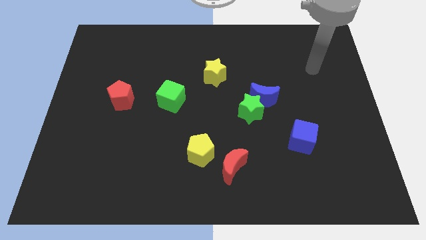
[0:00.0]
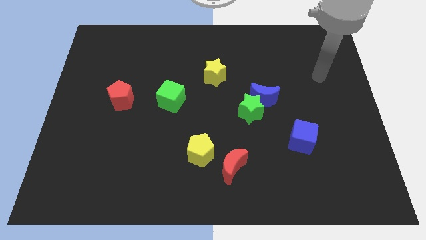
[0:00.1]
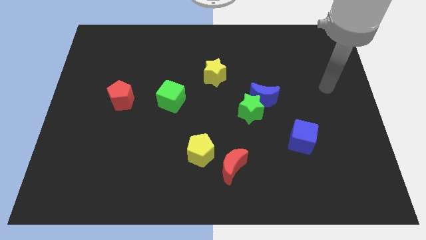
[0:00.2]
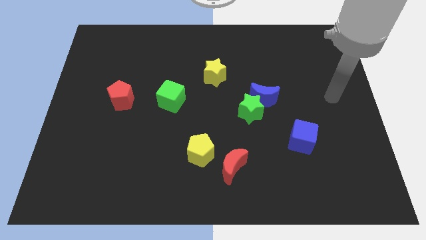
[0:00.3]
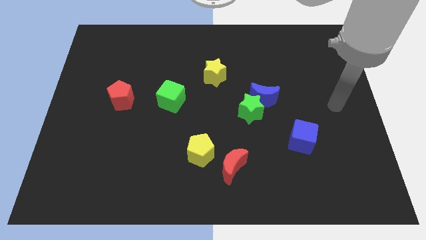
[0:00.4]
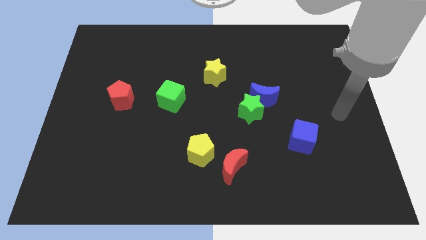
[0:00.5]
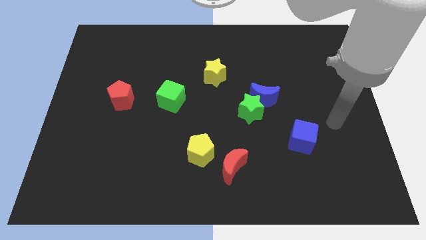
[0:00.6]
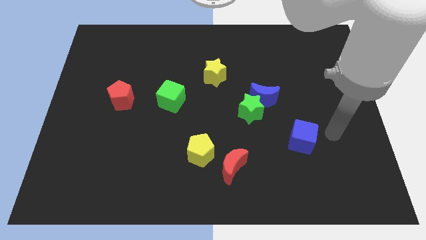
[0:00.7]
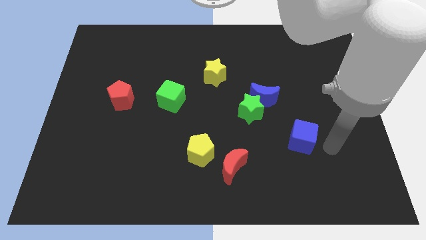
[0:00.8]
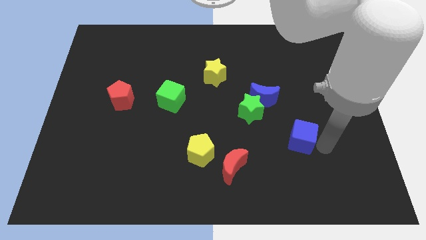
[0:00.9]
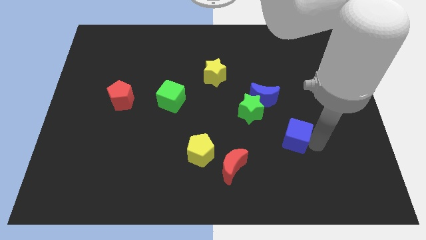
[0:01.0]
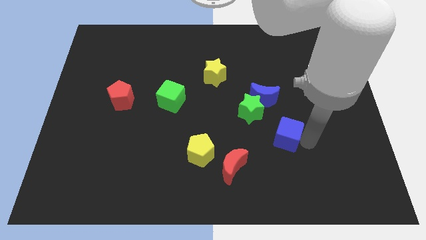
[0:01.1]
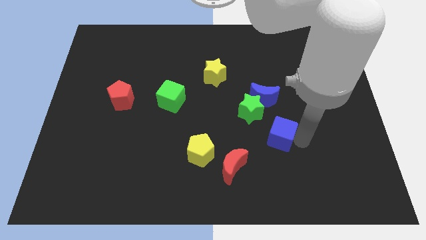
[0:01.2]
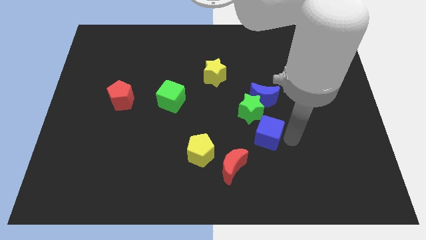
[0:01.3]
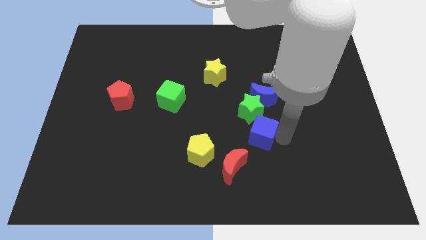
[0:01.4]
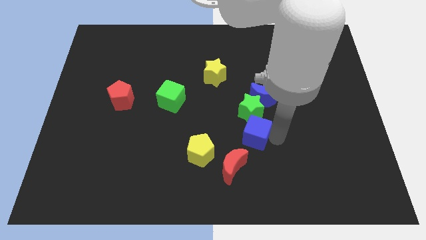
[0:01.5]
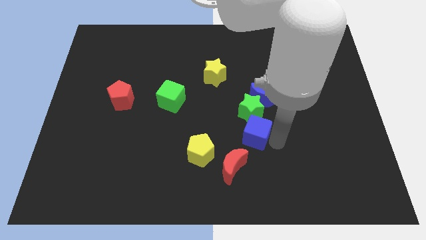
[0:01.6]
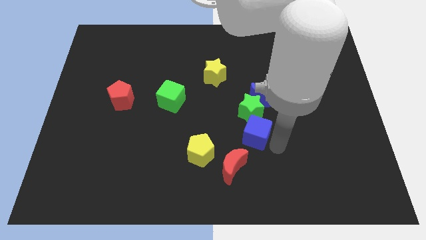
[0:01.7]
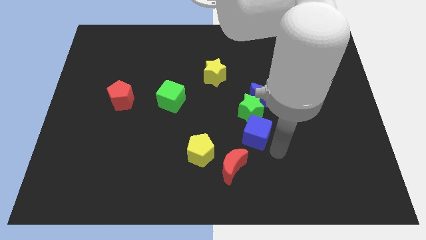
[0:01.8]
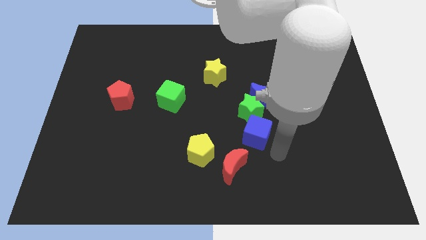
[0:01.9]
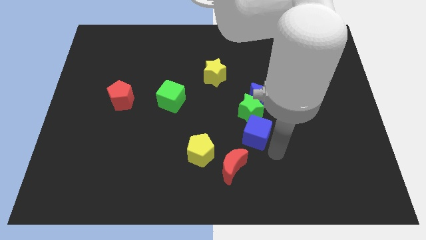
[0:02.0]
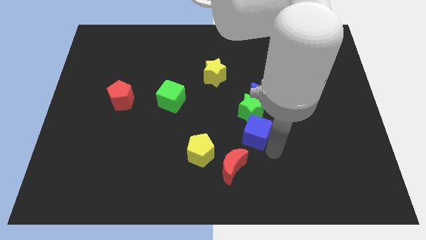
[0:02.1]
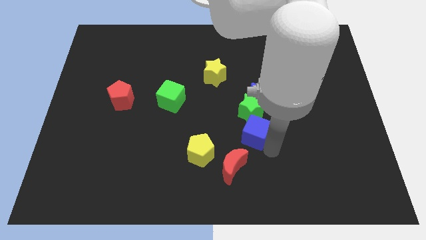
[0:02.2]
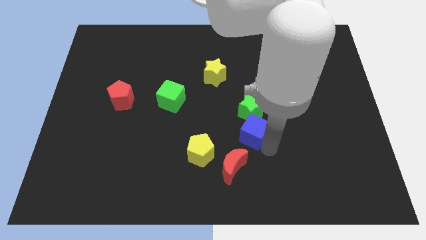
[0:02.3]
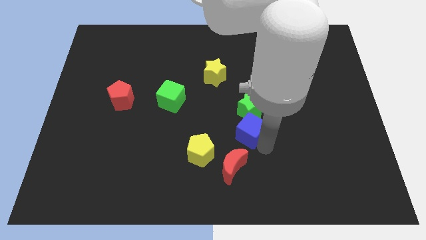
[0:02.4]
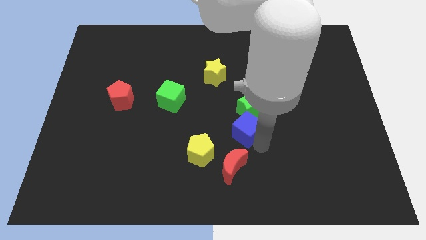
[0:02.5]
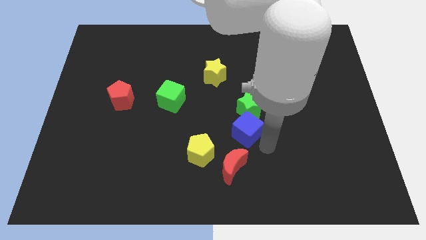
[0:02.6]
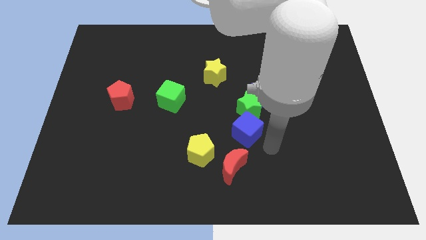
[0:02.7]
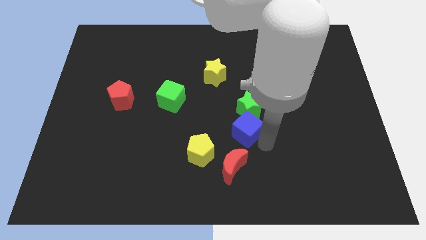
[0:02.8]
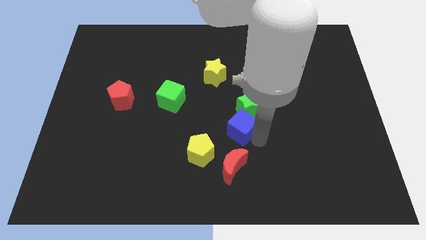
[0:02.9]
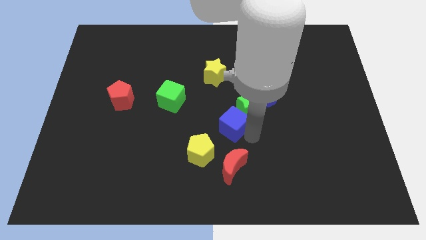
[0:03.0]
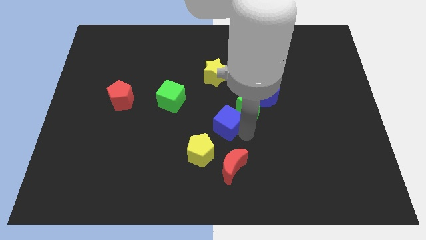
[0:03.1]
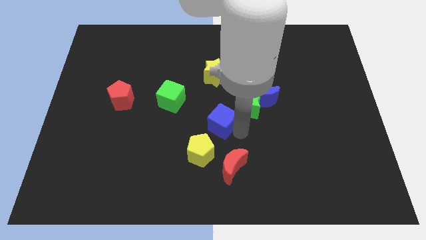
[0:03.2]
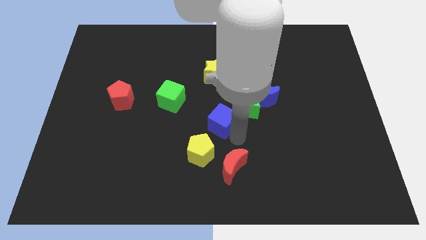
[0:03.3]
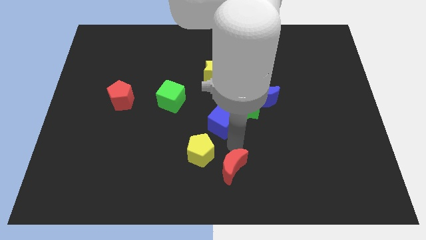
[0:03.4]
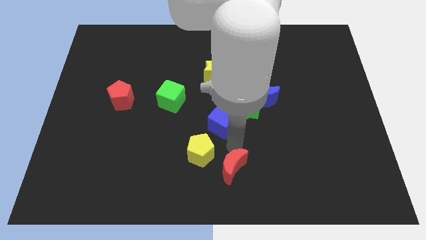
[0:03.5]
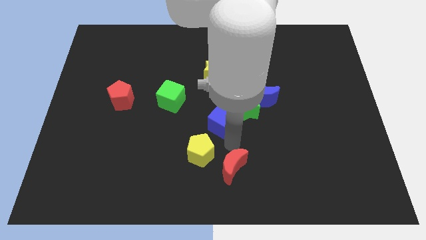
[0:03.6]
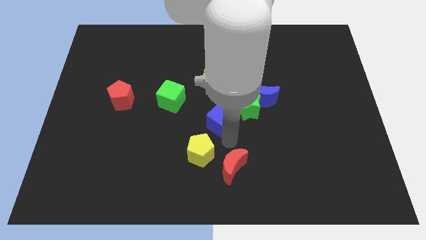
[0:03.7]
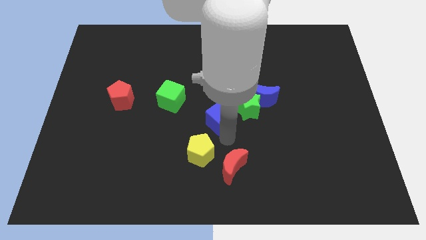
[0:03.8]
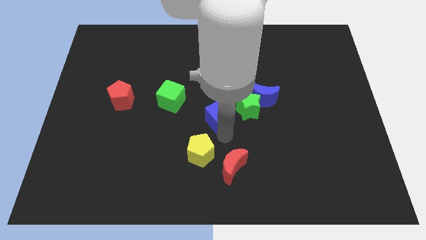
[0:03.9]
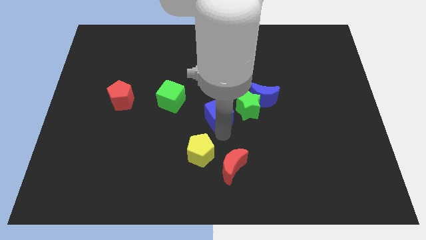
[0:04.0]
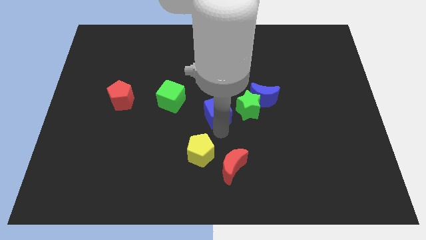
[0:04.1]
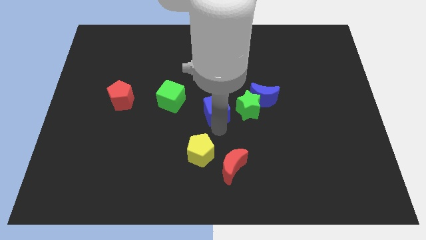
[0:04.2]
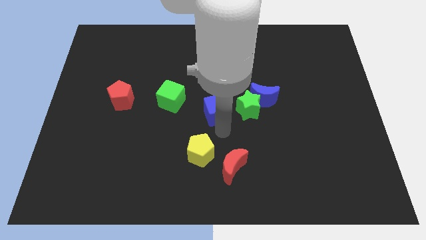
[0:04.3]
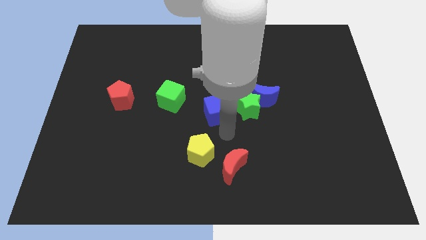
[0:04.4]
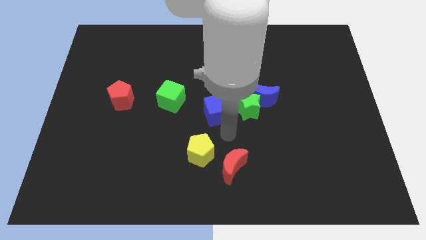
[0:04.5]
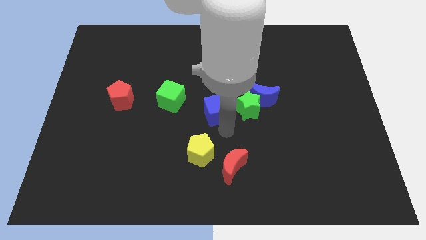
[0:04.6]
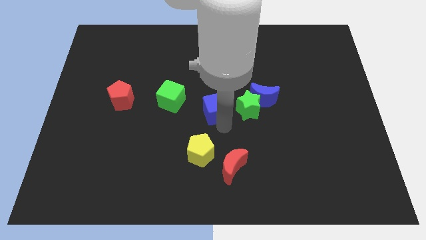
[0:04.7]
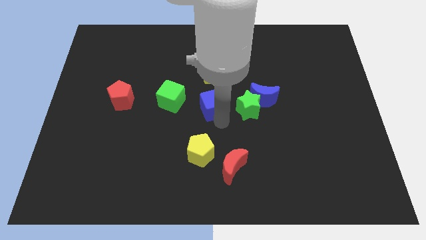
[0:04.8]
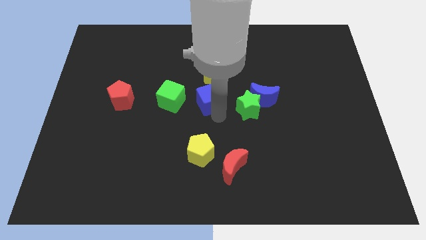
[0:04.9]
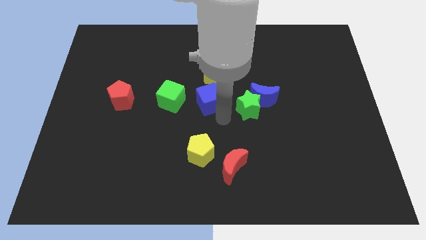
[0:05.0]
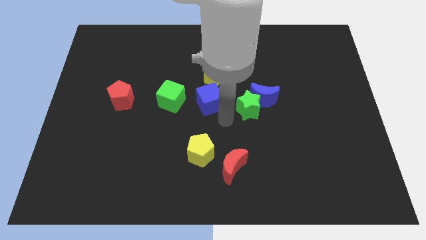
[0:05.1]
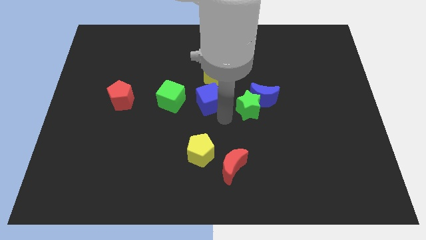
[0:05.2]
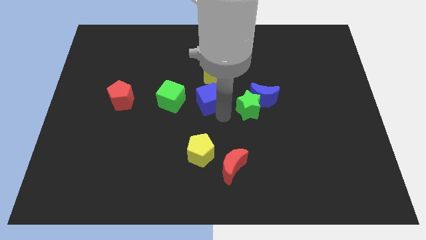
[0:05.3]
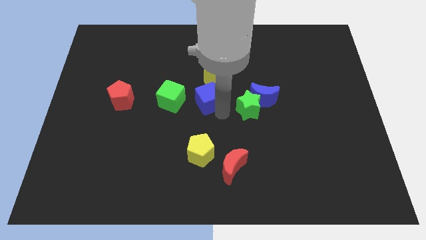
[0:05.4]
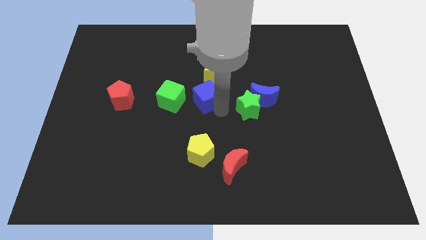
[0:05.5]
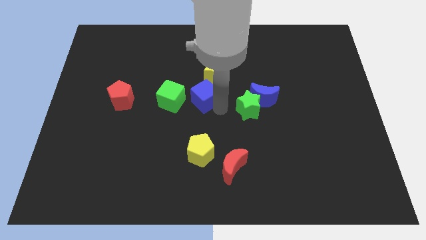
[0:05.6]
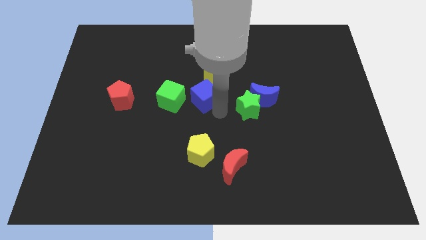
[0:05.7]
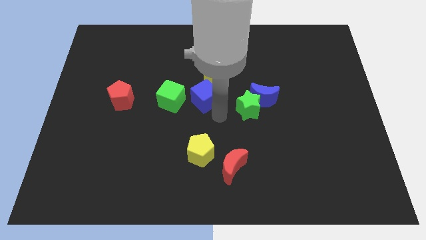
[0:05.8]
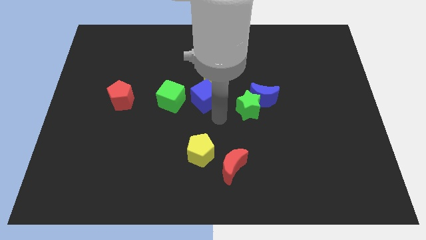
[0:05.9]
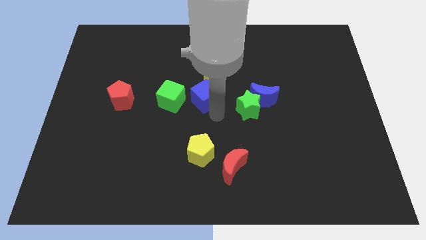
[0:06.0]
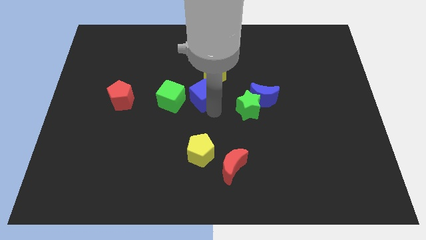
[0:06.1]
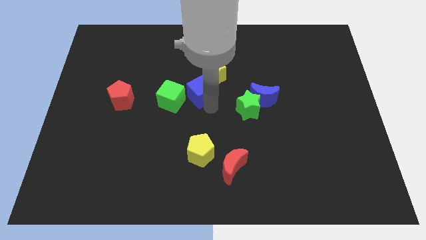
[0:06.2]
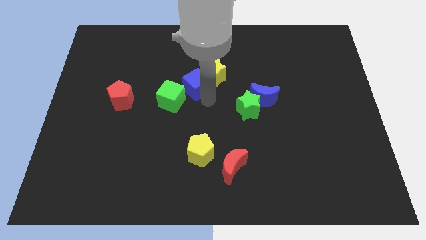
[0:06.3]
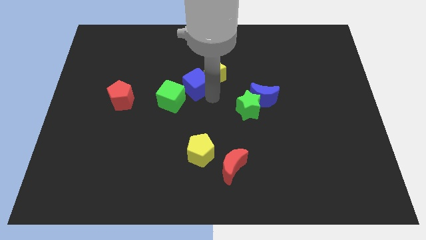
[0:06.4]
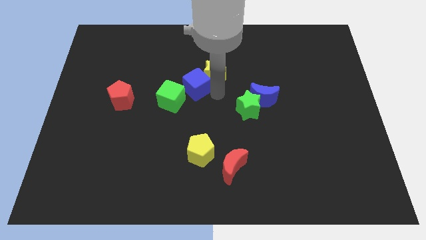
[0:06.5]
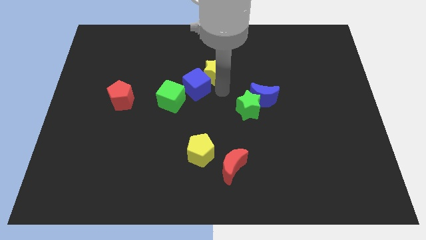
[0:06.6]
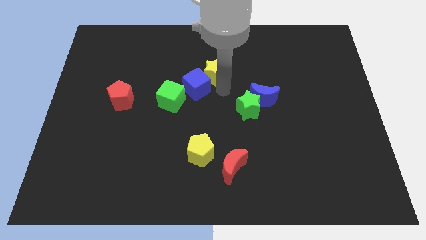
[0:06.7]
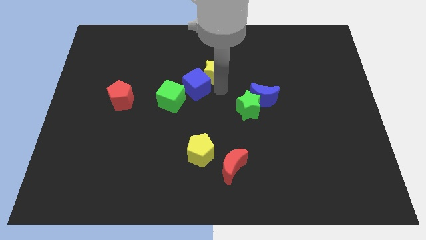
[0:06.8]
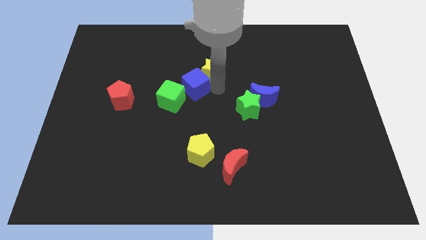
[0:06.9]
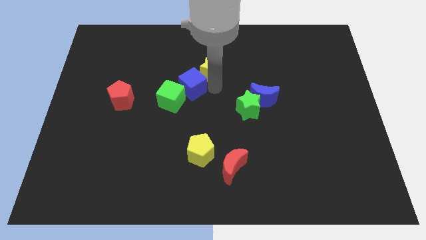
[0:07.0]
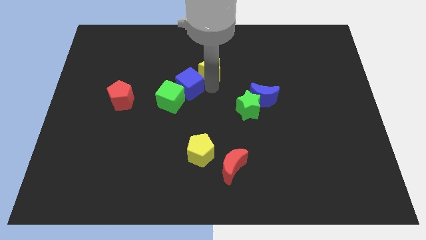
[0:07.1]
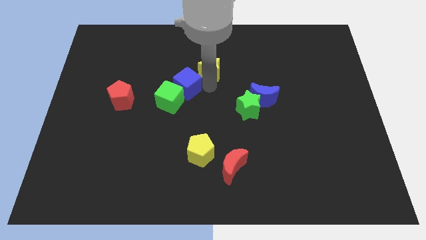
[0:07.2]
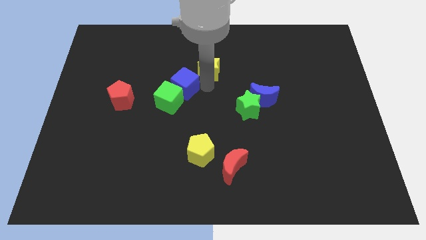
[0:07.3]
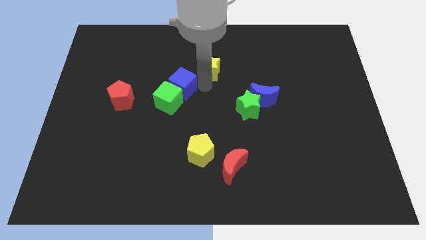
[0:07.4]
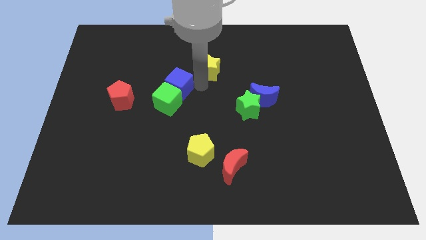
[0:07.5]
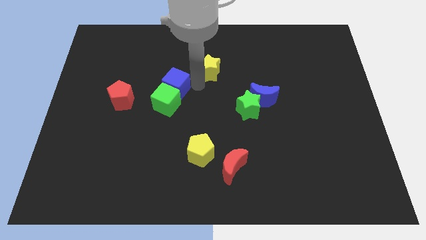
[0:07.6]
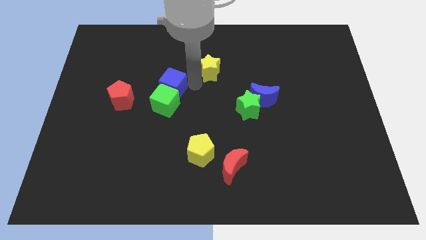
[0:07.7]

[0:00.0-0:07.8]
put the blue cube diagonally up and to the left of the green cube
